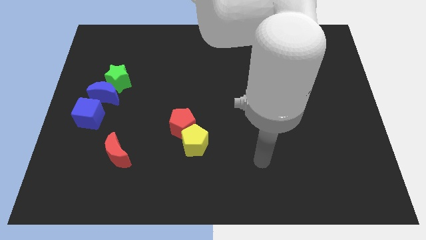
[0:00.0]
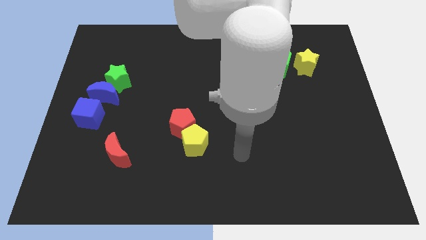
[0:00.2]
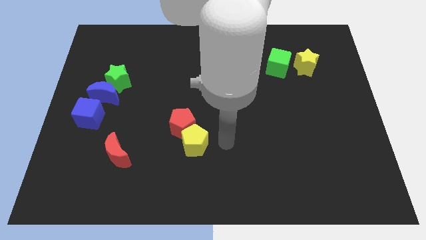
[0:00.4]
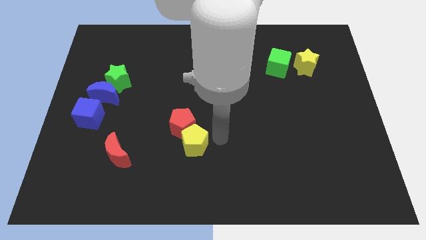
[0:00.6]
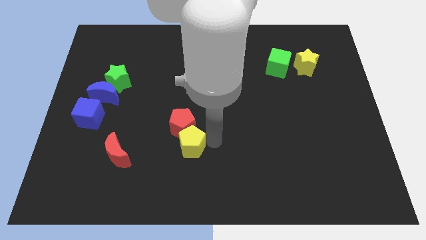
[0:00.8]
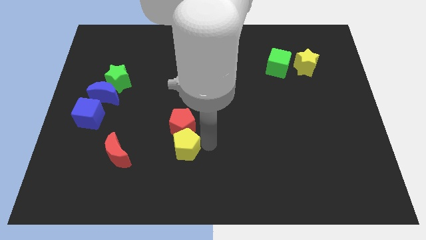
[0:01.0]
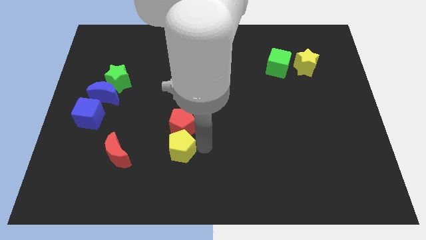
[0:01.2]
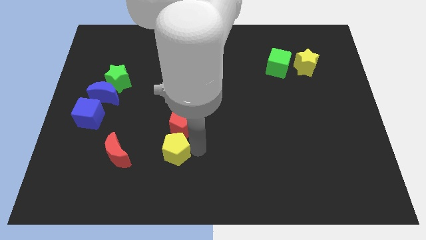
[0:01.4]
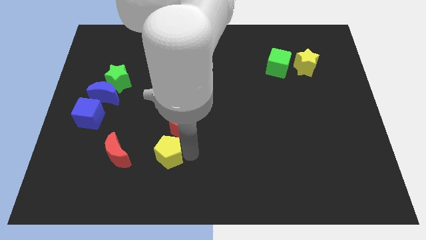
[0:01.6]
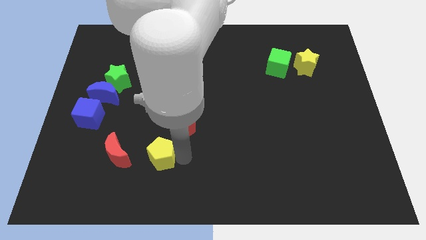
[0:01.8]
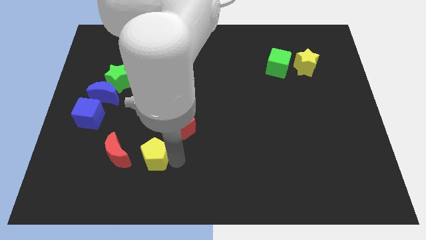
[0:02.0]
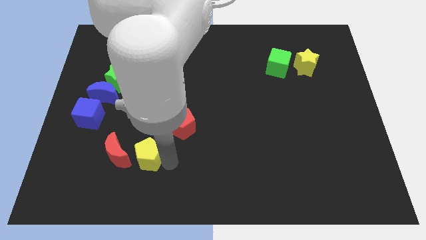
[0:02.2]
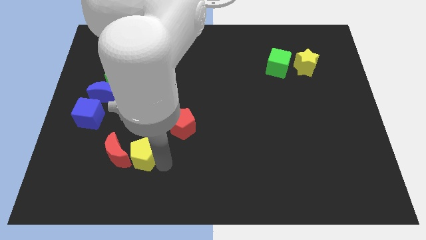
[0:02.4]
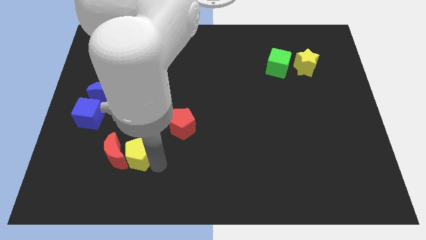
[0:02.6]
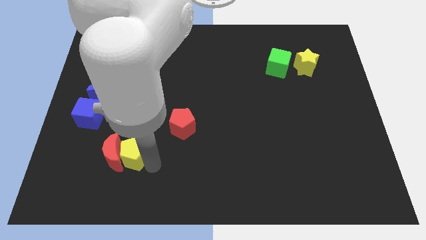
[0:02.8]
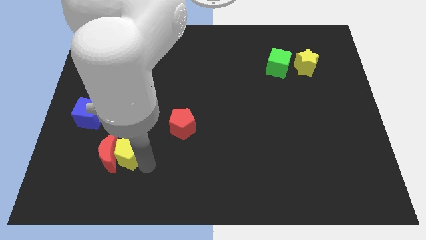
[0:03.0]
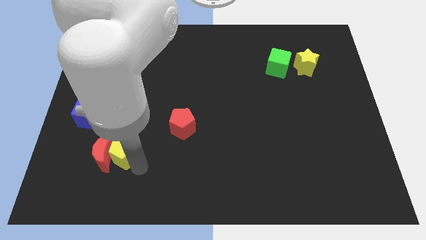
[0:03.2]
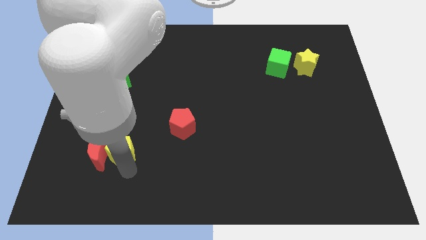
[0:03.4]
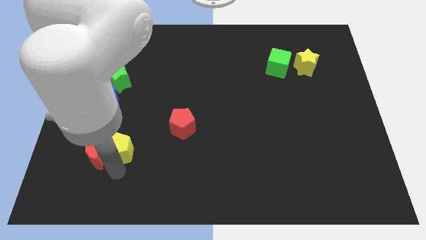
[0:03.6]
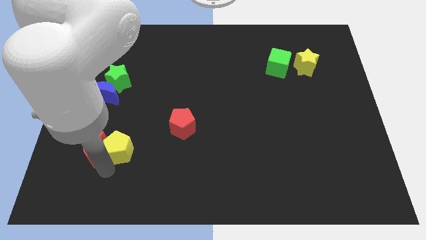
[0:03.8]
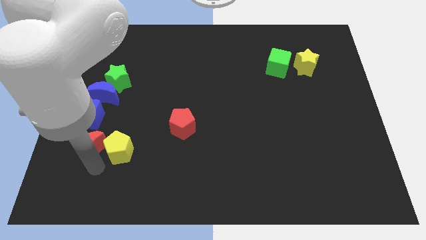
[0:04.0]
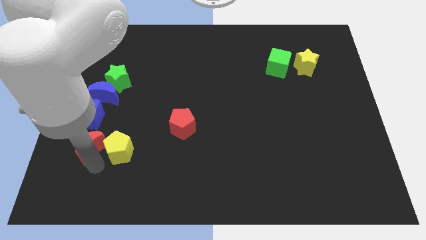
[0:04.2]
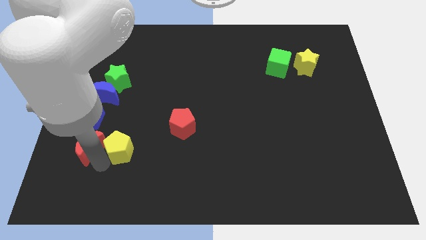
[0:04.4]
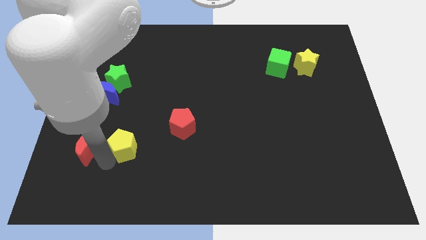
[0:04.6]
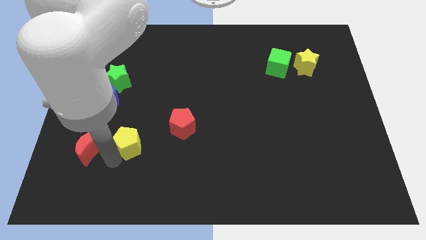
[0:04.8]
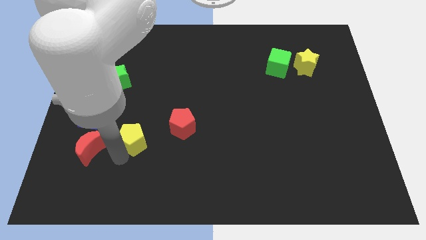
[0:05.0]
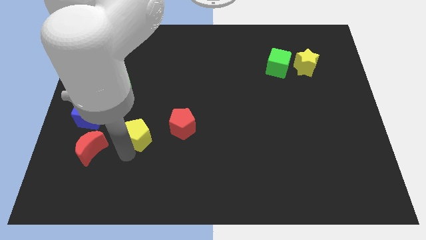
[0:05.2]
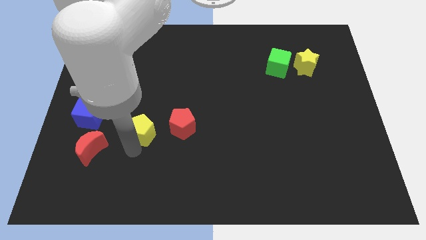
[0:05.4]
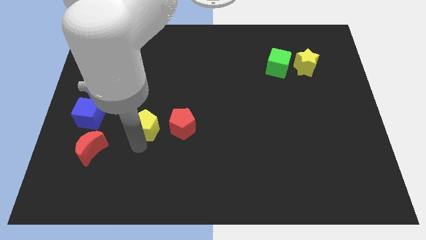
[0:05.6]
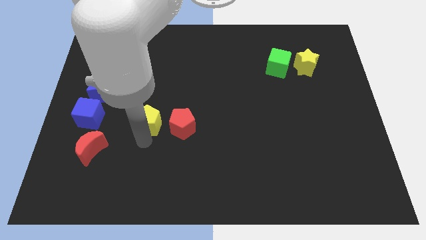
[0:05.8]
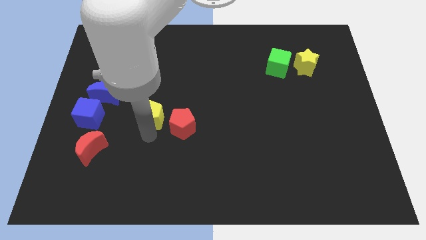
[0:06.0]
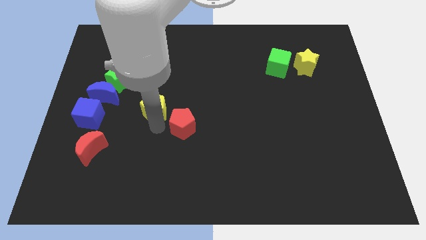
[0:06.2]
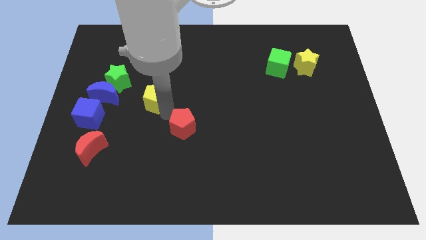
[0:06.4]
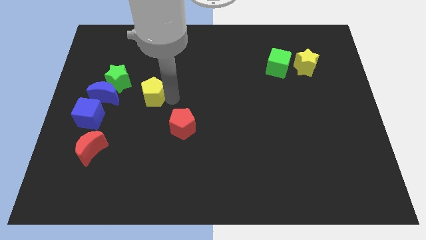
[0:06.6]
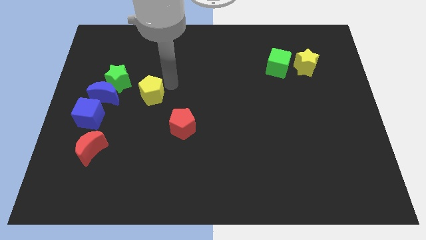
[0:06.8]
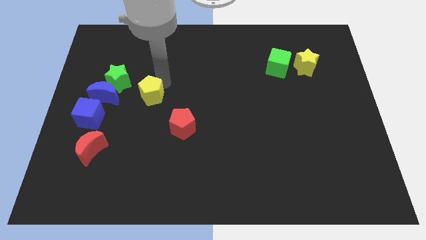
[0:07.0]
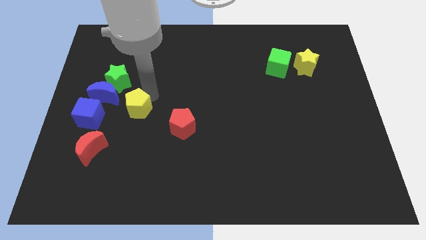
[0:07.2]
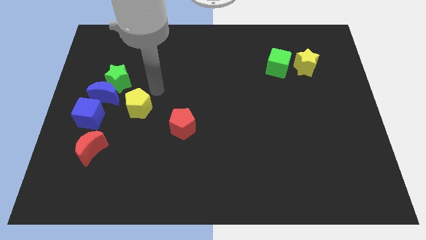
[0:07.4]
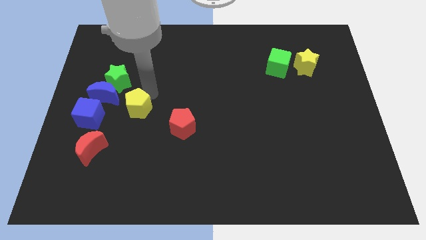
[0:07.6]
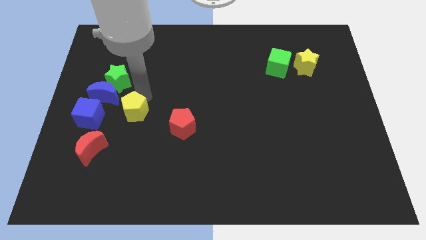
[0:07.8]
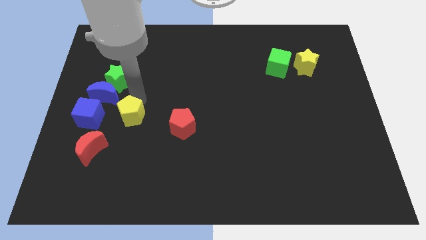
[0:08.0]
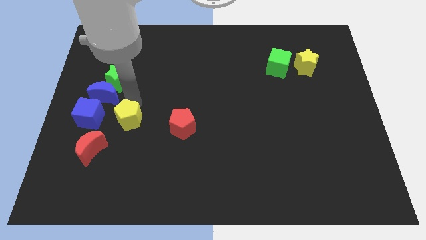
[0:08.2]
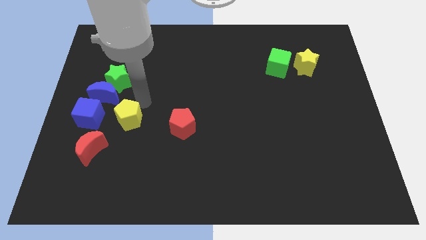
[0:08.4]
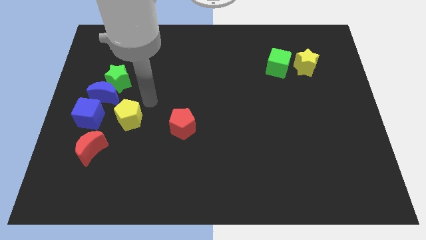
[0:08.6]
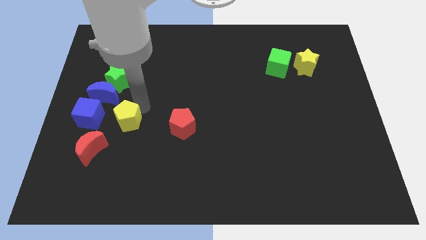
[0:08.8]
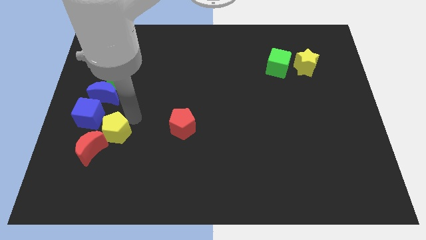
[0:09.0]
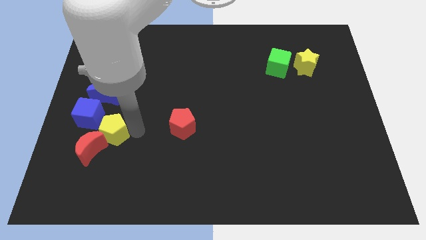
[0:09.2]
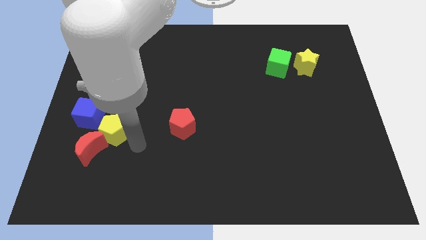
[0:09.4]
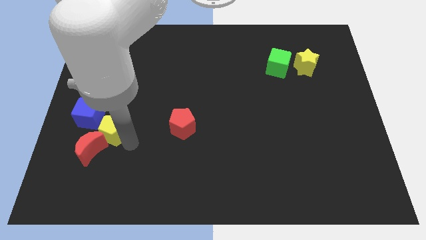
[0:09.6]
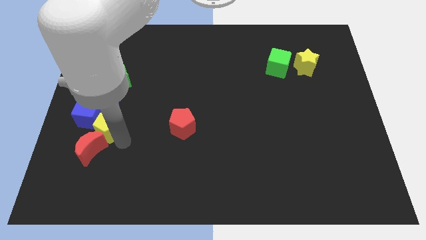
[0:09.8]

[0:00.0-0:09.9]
push the yellow pentagon next to the blue cube

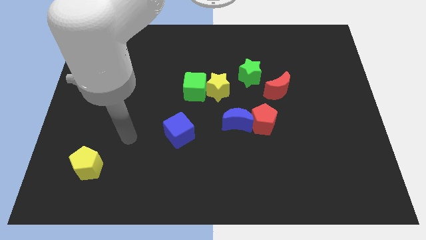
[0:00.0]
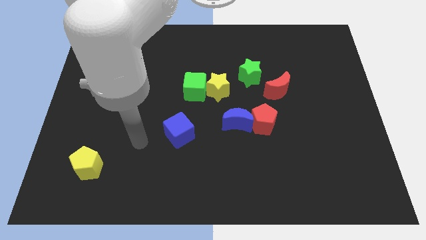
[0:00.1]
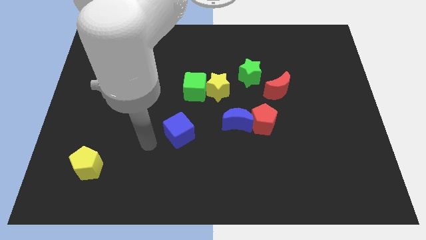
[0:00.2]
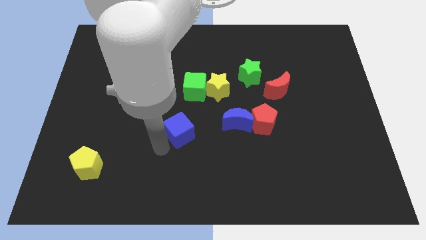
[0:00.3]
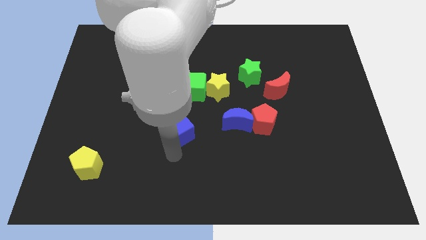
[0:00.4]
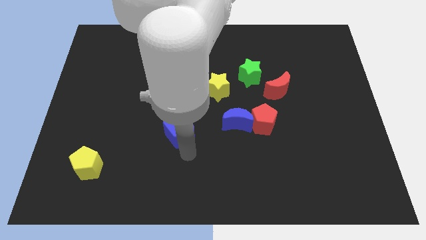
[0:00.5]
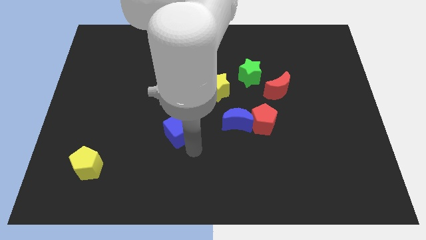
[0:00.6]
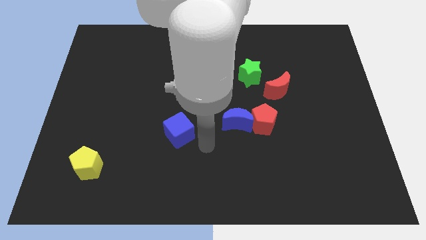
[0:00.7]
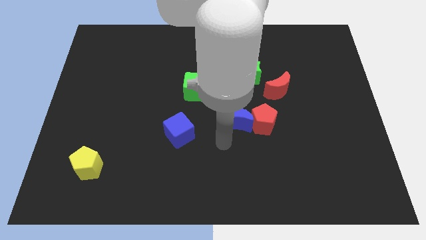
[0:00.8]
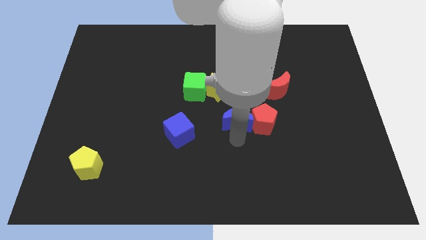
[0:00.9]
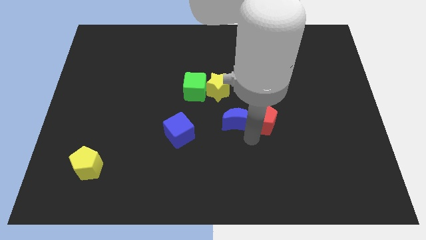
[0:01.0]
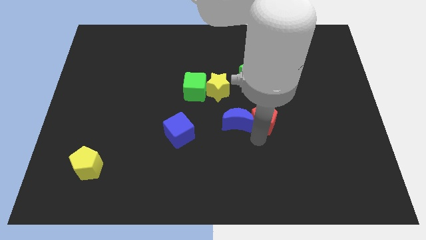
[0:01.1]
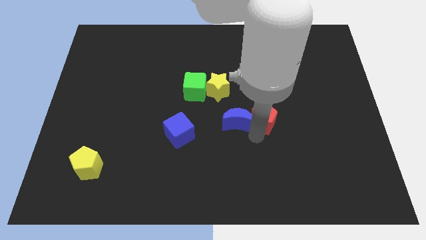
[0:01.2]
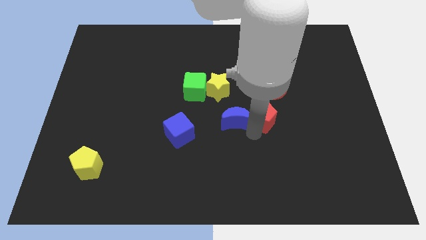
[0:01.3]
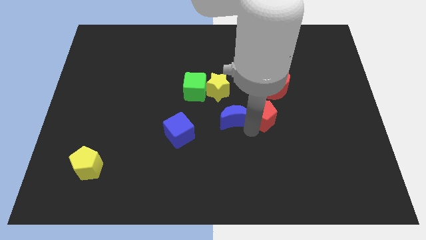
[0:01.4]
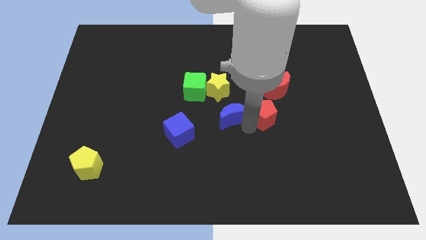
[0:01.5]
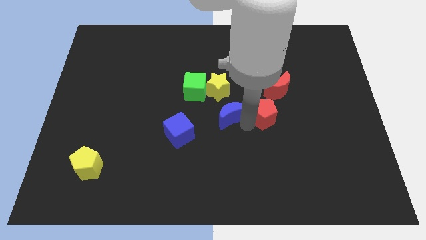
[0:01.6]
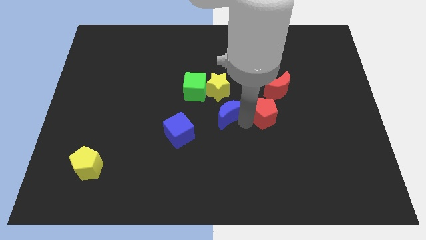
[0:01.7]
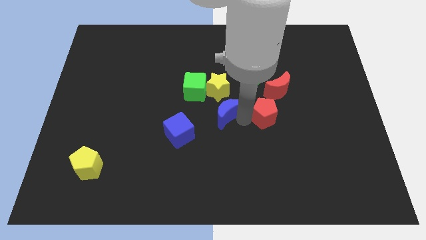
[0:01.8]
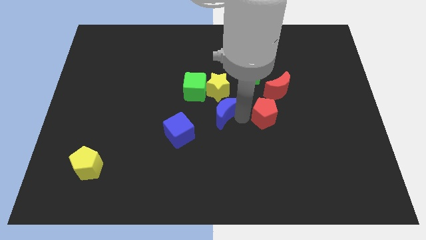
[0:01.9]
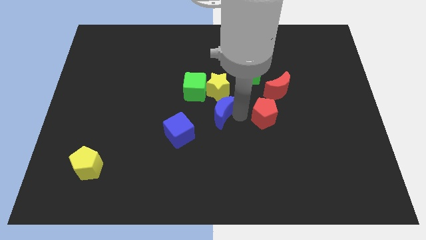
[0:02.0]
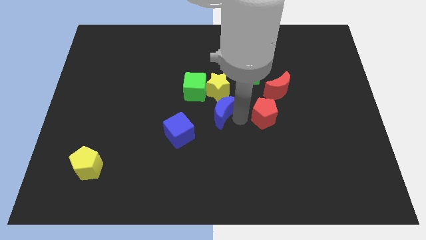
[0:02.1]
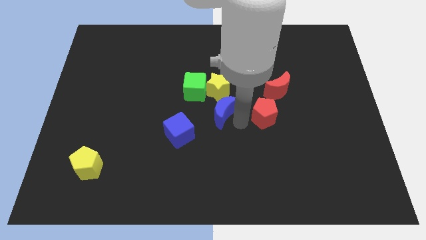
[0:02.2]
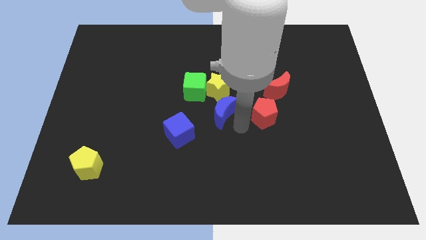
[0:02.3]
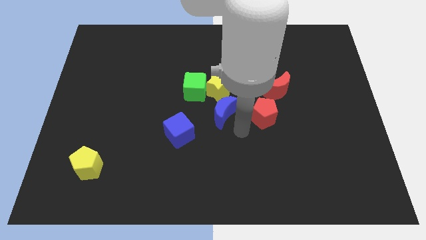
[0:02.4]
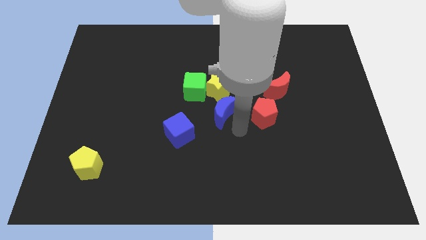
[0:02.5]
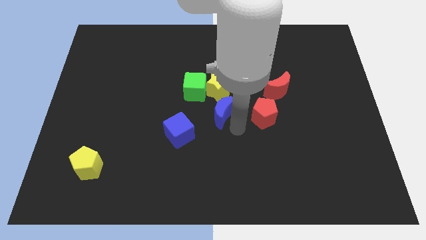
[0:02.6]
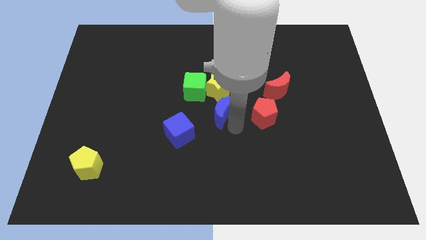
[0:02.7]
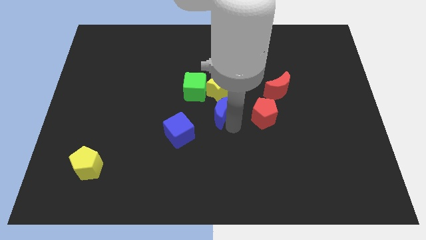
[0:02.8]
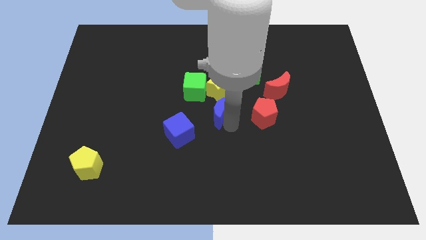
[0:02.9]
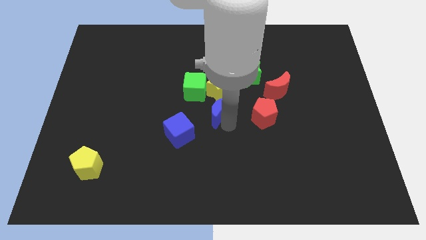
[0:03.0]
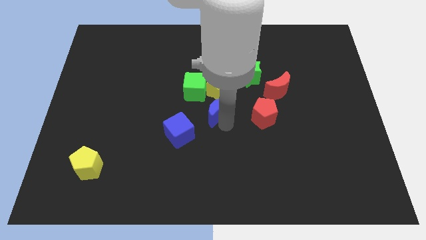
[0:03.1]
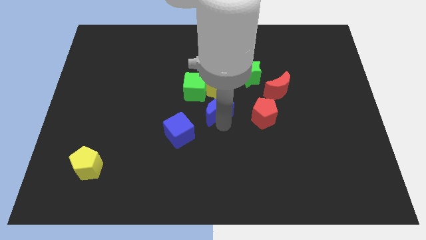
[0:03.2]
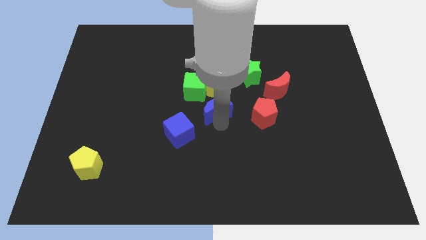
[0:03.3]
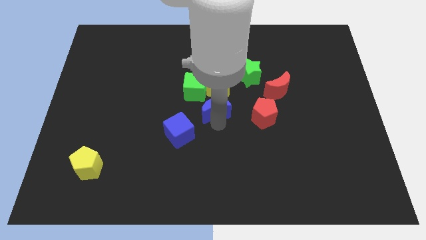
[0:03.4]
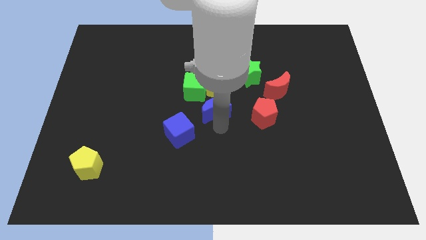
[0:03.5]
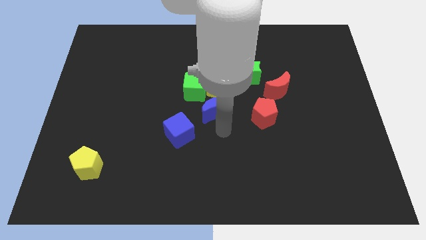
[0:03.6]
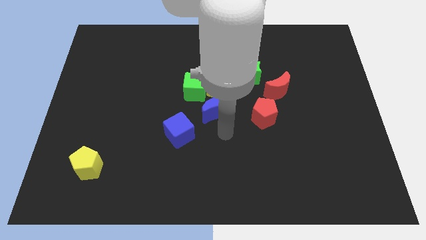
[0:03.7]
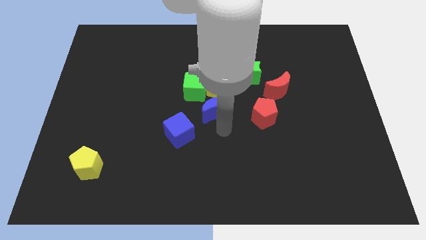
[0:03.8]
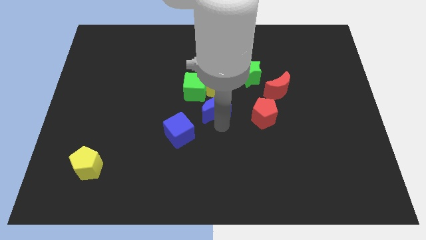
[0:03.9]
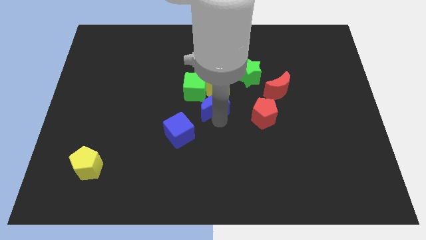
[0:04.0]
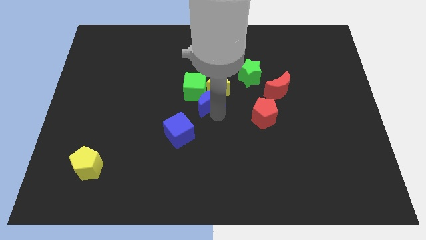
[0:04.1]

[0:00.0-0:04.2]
slide the blue moon to the green cube
